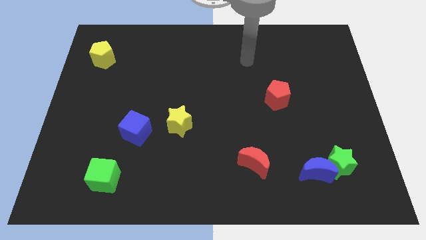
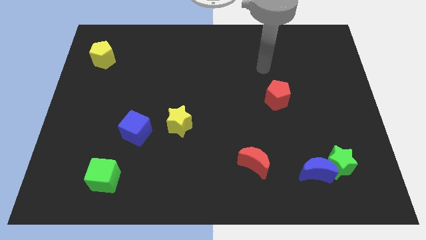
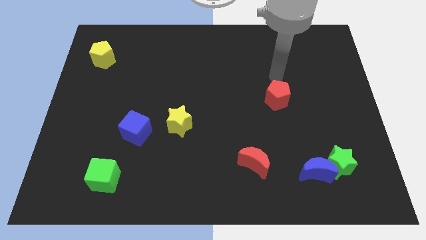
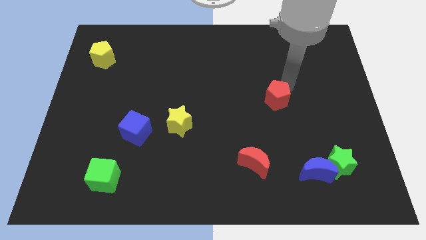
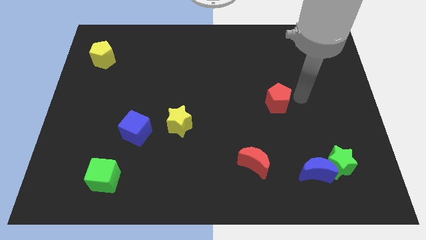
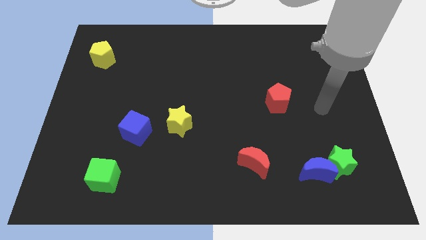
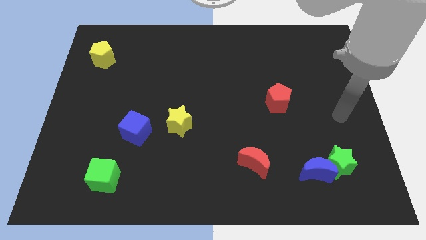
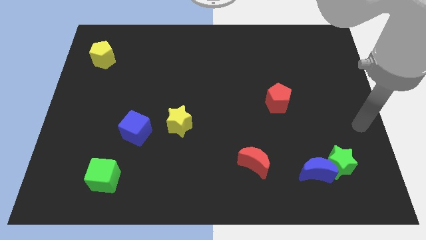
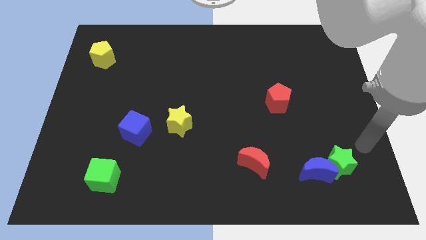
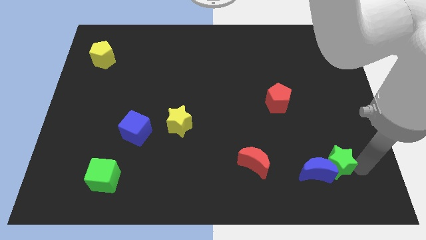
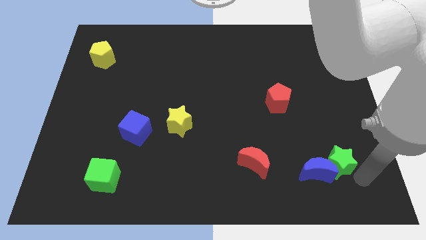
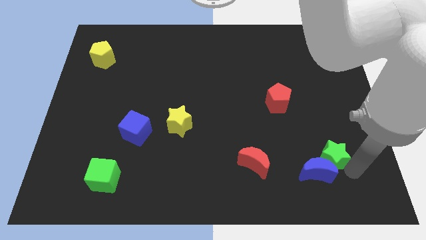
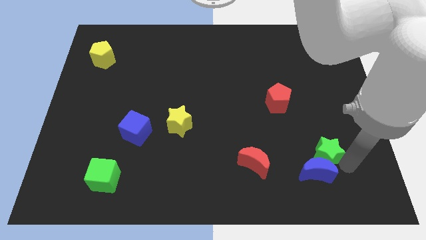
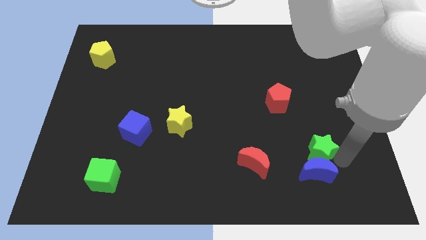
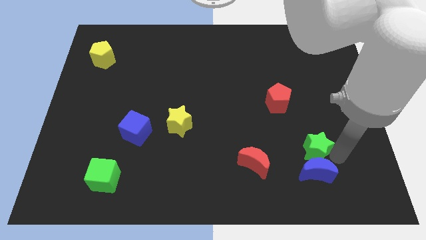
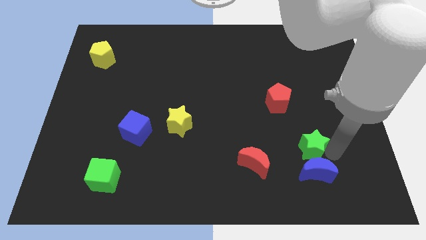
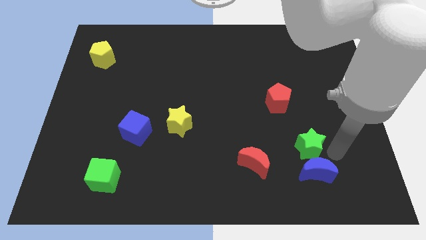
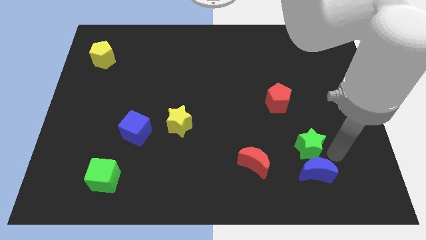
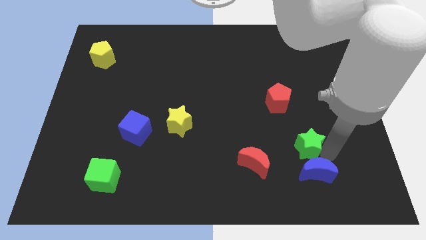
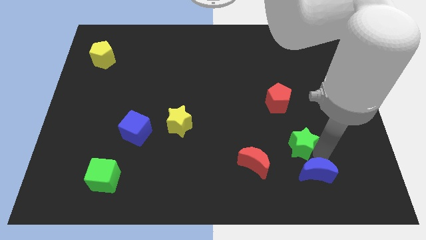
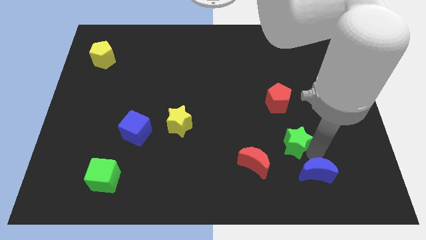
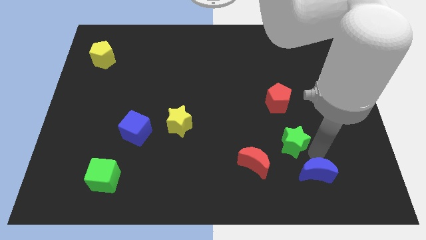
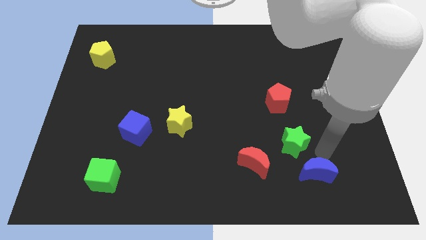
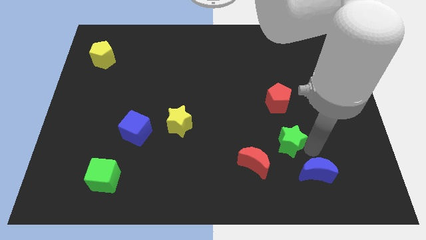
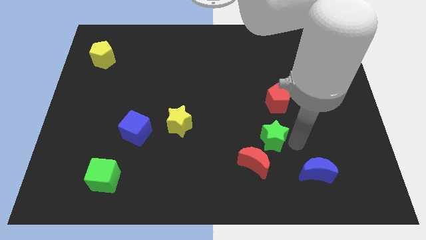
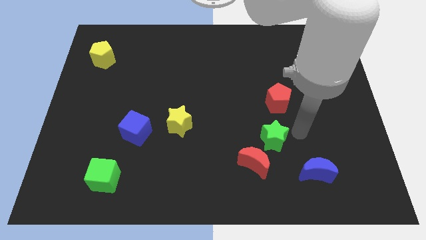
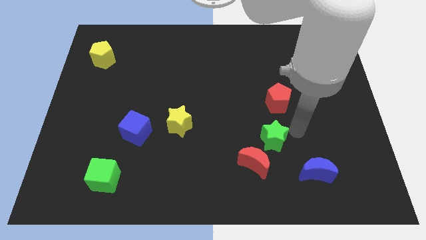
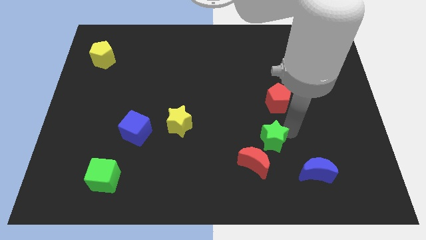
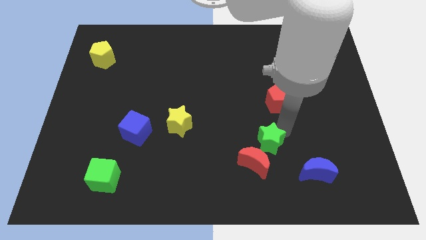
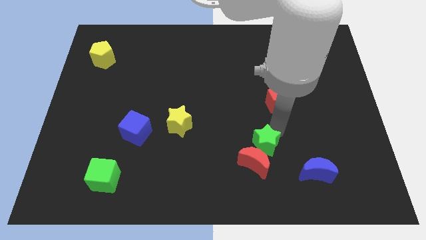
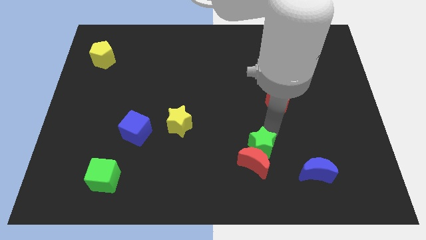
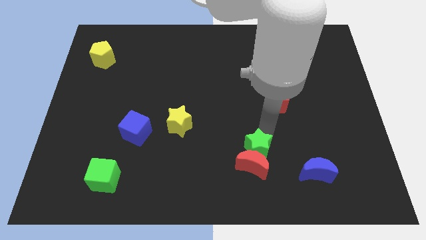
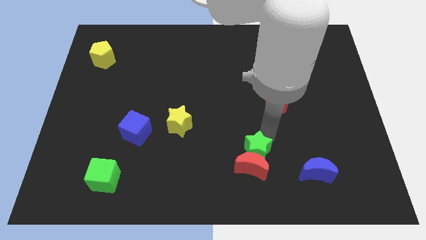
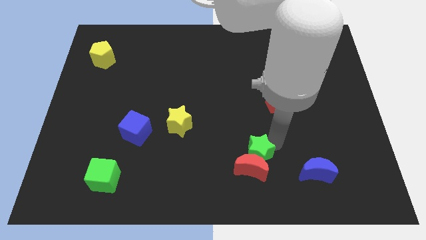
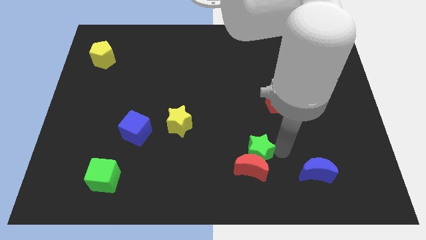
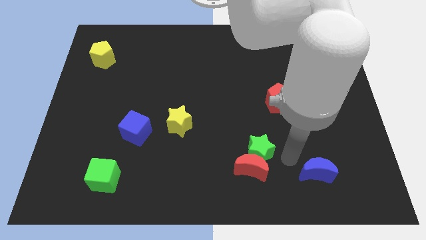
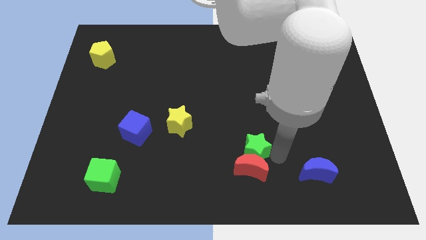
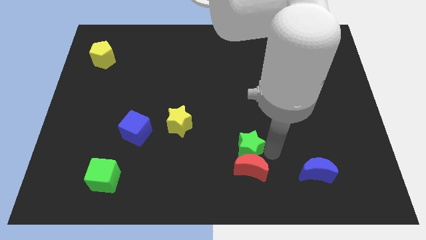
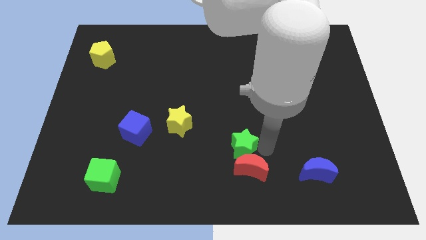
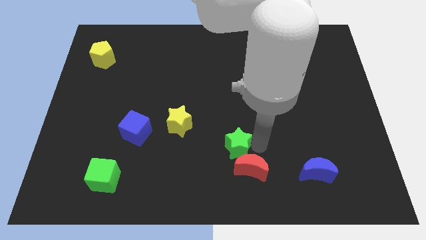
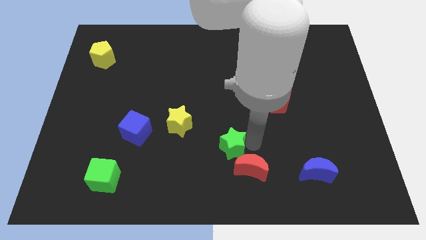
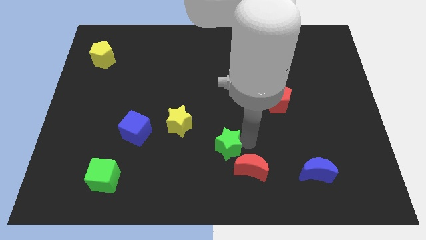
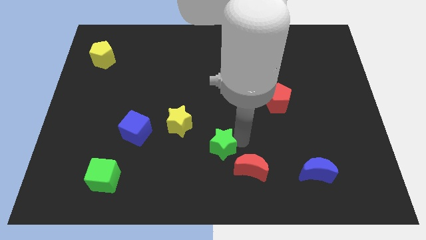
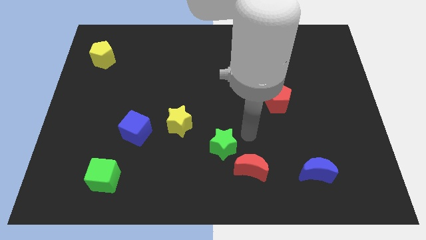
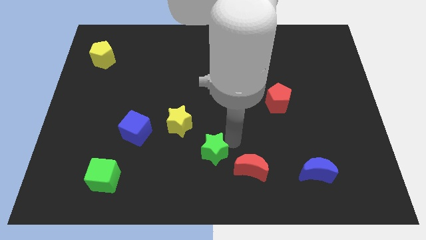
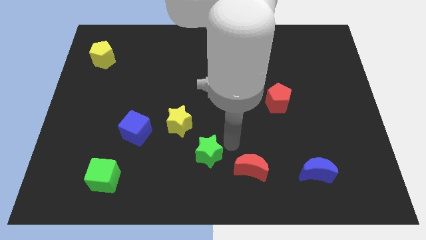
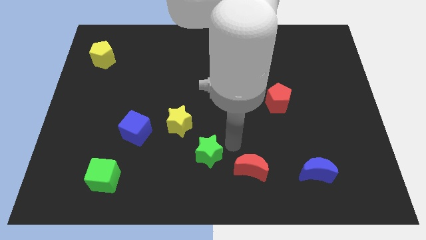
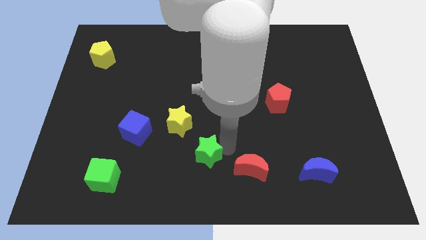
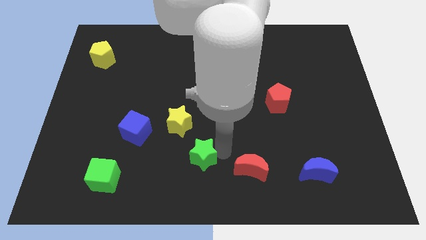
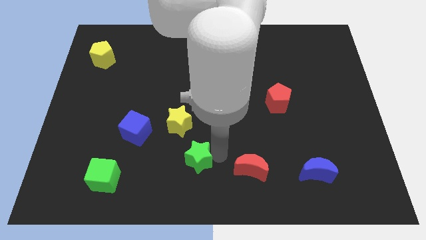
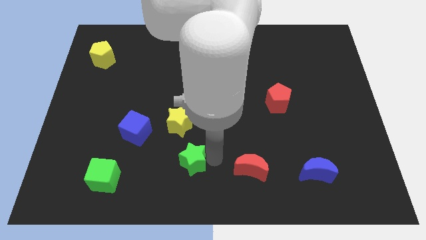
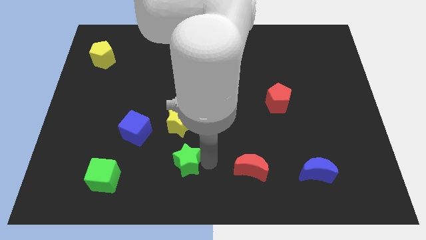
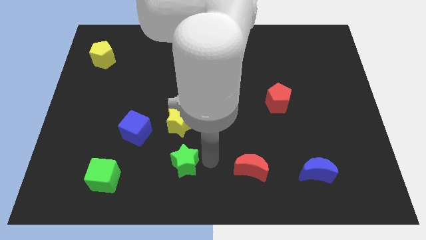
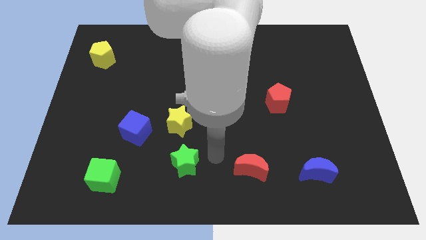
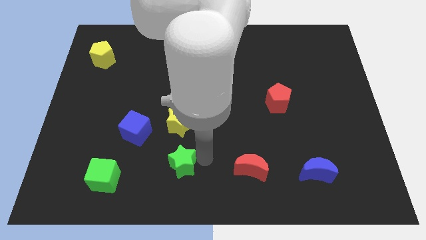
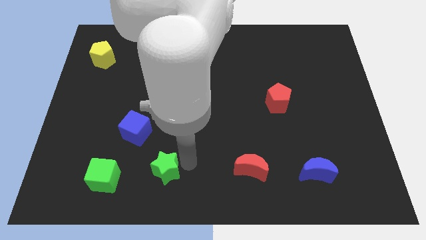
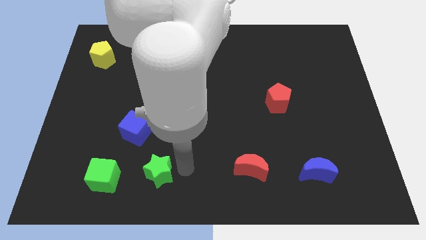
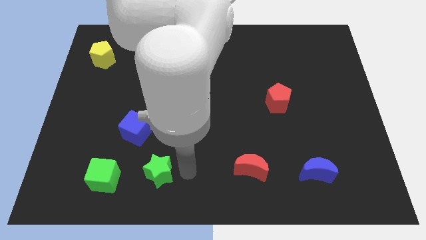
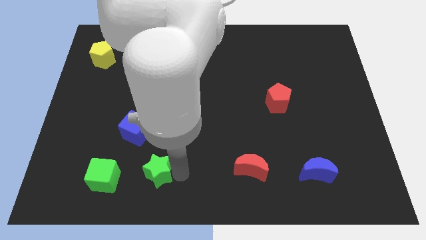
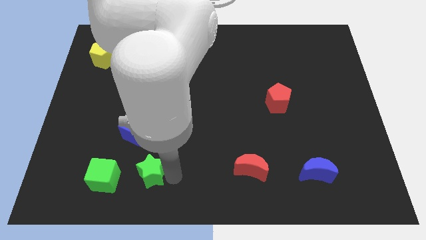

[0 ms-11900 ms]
slide the green star to the bottom of the blue cube

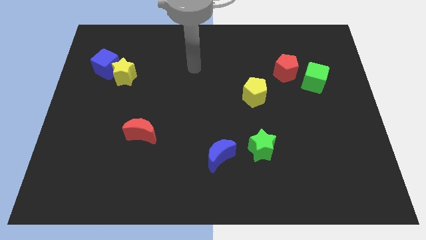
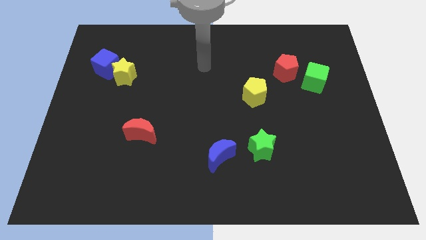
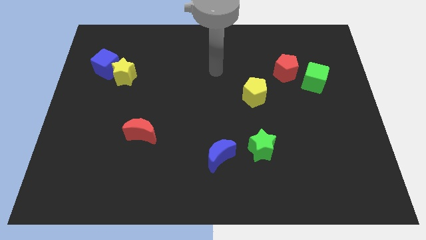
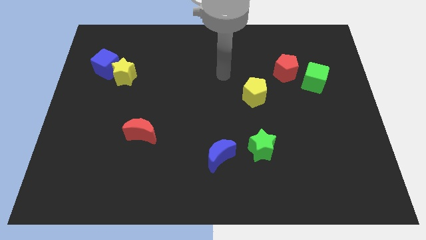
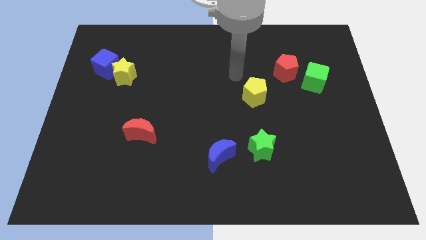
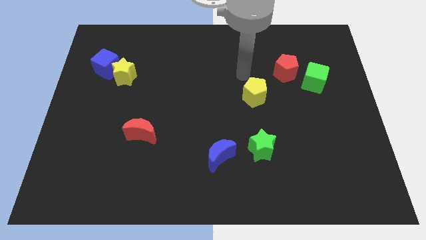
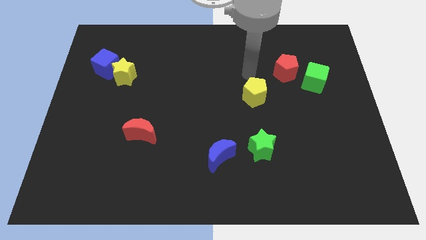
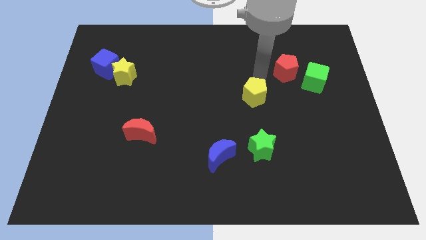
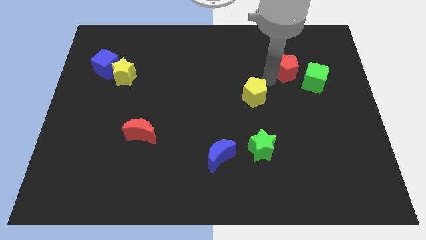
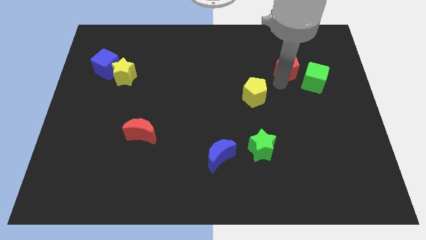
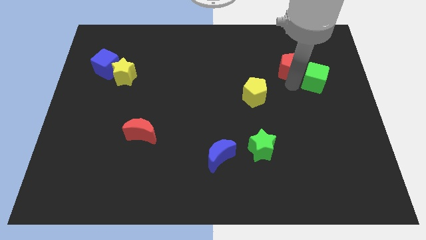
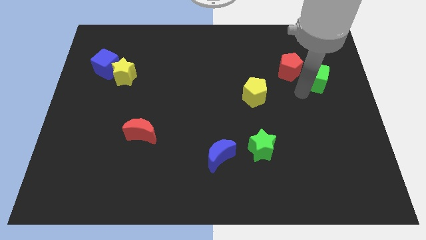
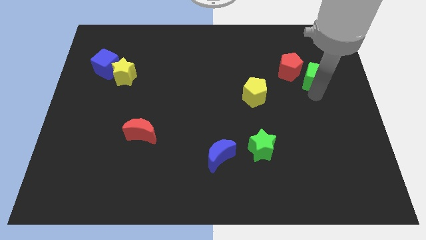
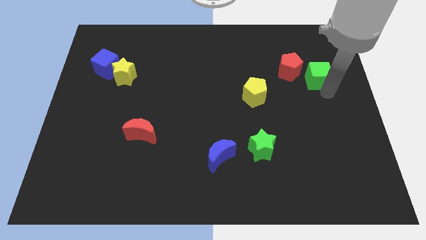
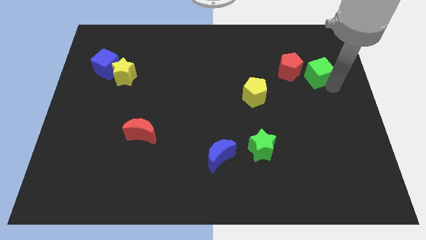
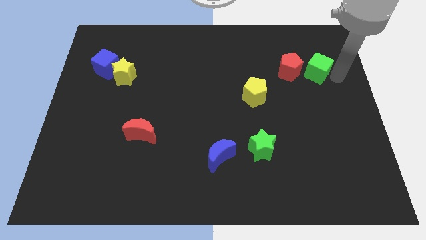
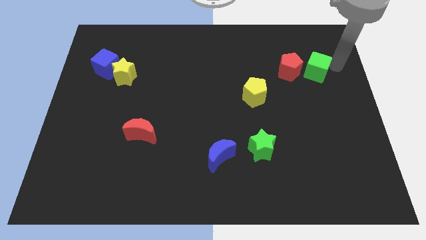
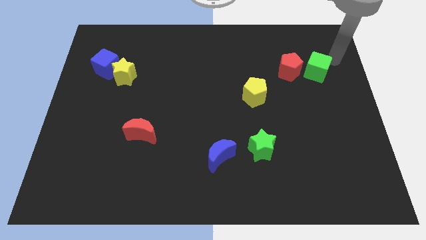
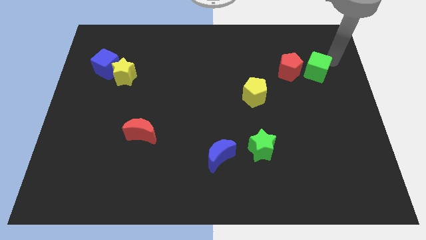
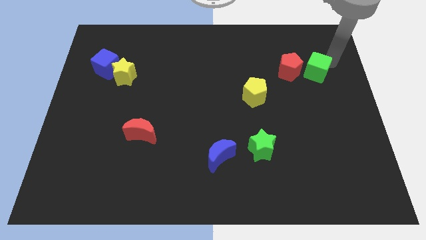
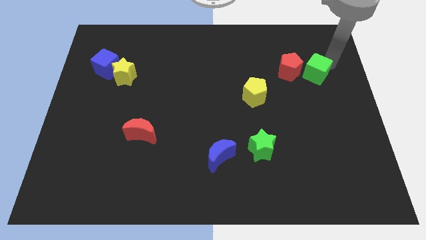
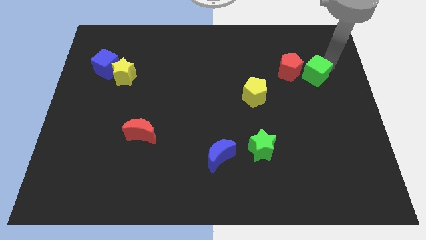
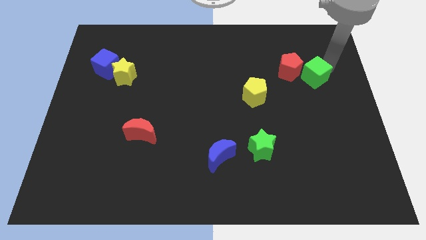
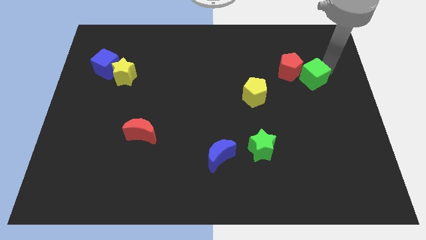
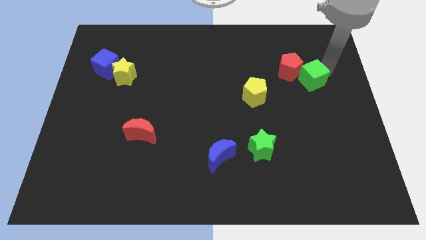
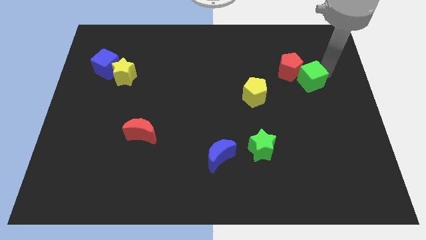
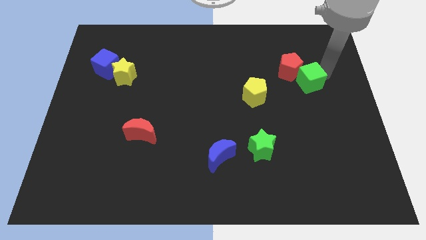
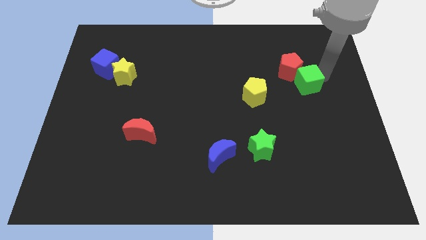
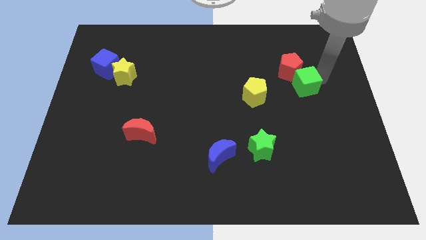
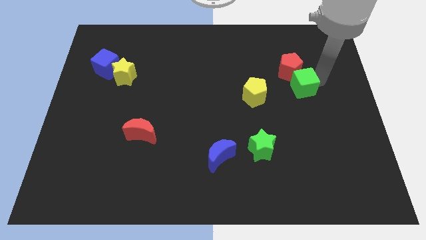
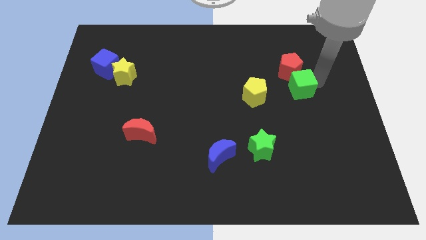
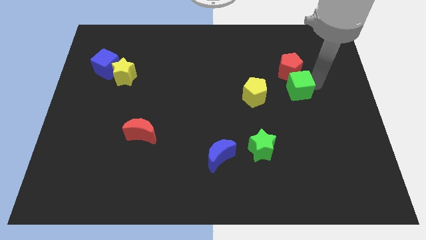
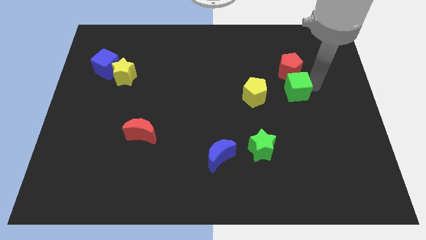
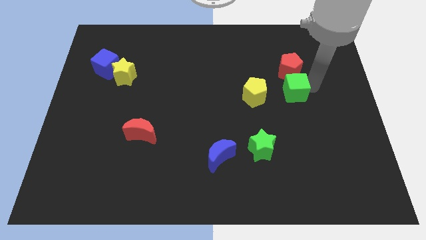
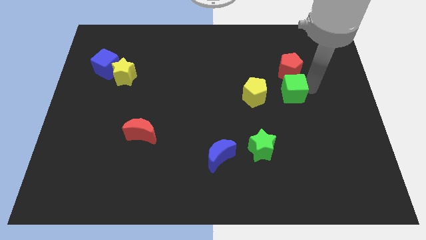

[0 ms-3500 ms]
put the green cube to the bottom left of the red pentagon
